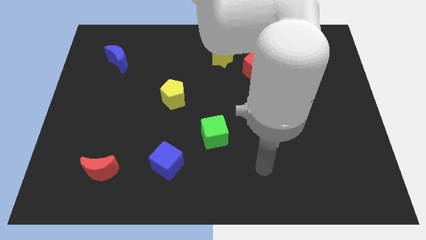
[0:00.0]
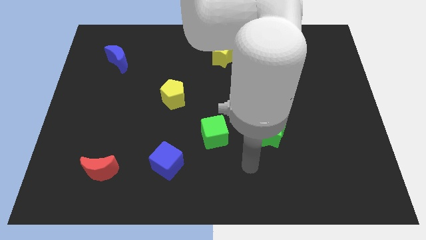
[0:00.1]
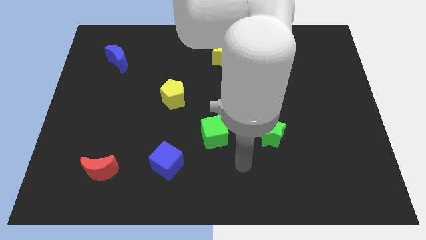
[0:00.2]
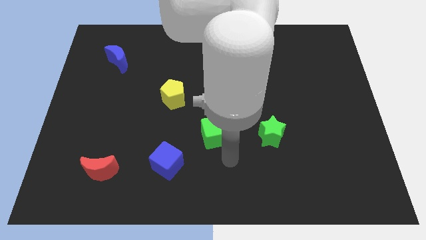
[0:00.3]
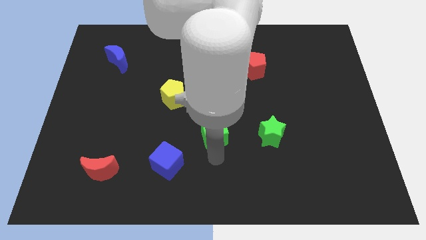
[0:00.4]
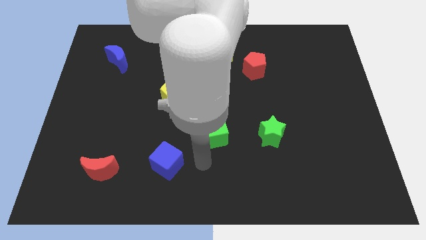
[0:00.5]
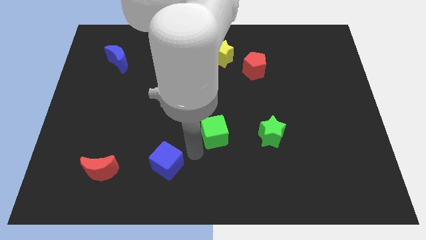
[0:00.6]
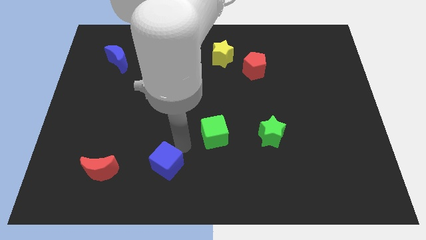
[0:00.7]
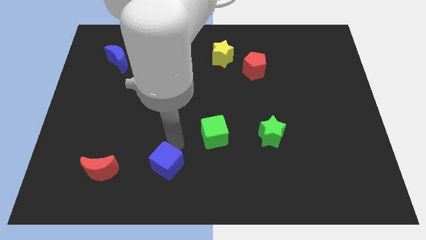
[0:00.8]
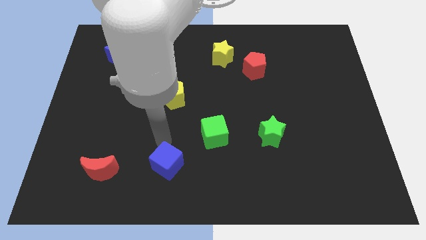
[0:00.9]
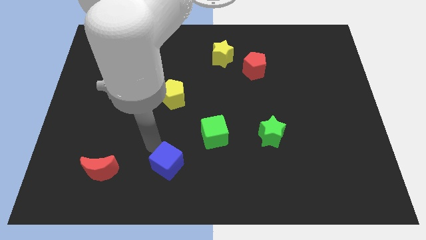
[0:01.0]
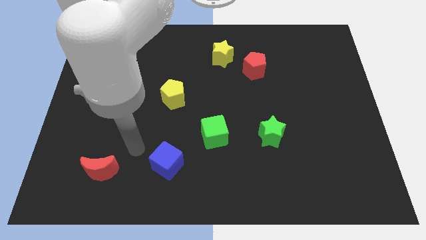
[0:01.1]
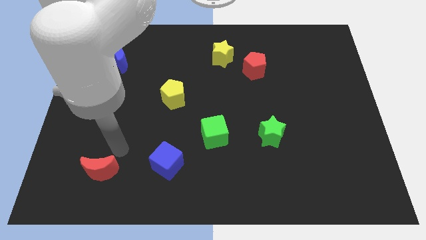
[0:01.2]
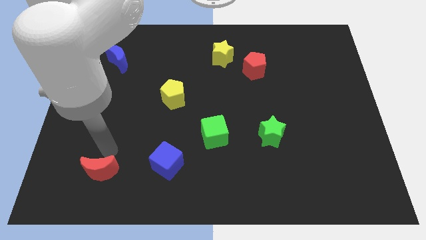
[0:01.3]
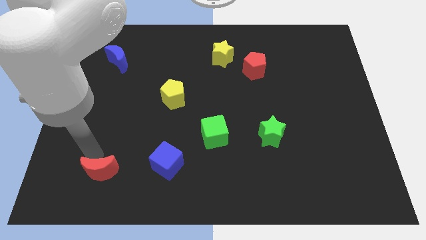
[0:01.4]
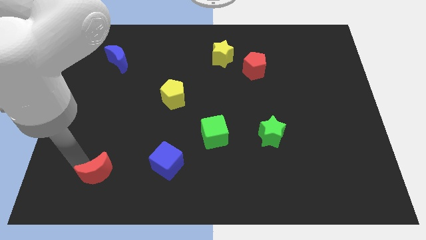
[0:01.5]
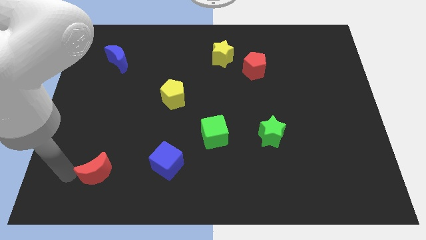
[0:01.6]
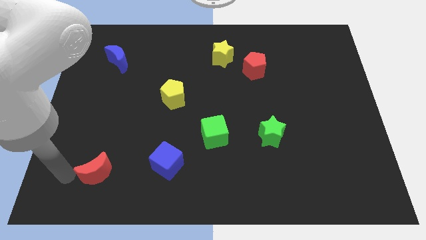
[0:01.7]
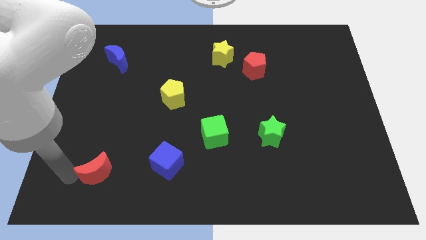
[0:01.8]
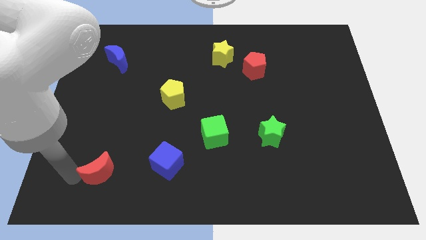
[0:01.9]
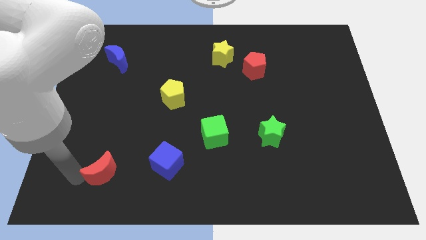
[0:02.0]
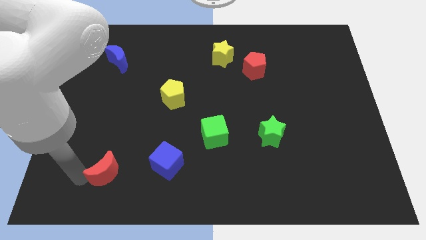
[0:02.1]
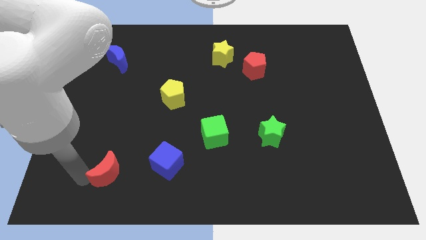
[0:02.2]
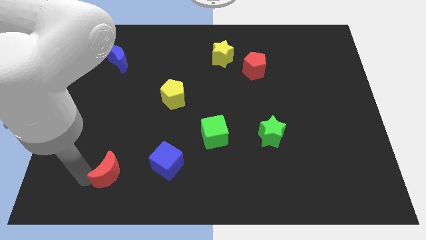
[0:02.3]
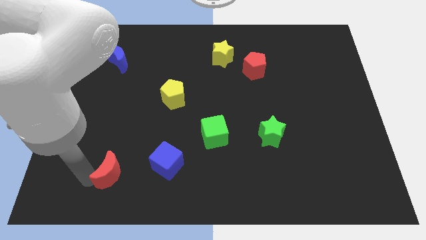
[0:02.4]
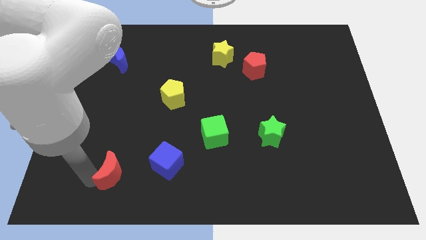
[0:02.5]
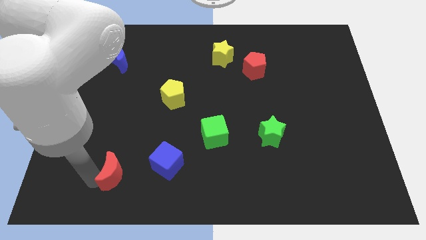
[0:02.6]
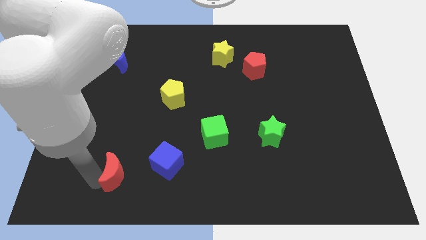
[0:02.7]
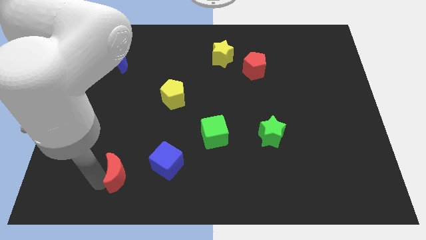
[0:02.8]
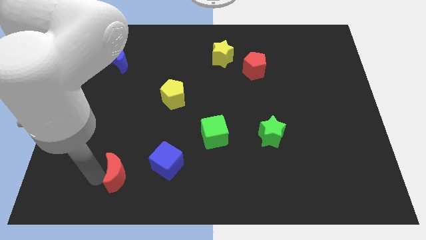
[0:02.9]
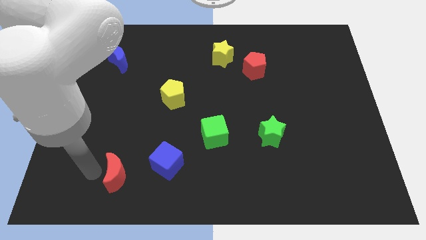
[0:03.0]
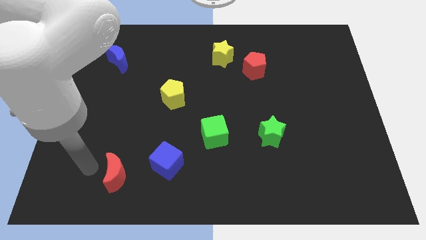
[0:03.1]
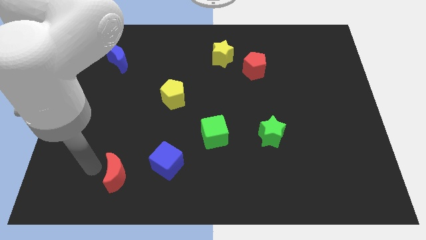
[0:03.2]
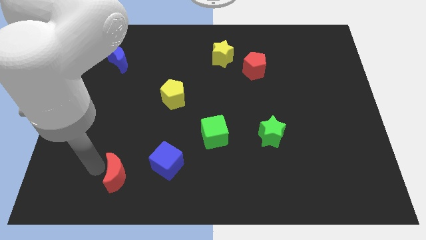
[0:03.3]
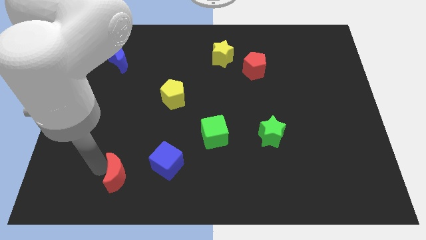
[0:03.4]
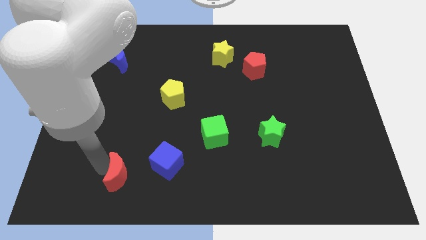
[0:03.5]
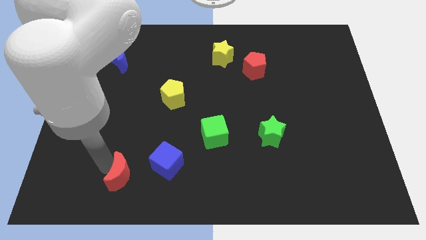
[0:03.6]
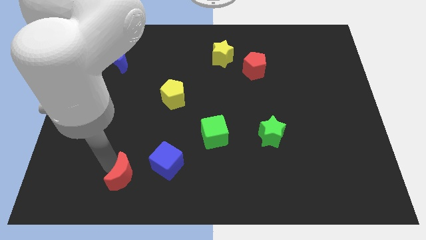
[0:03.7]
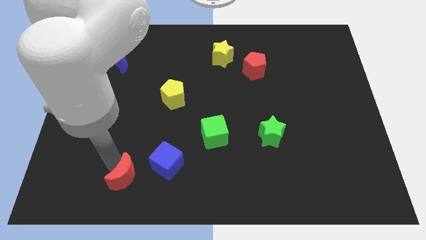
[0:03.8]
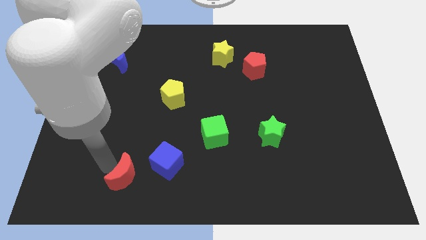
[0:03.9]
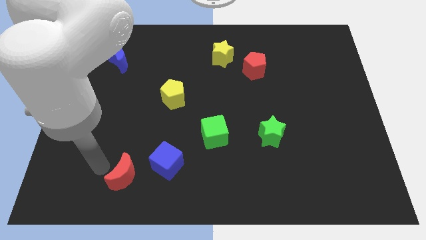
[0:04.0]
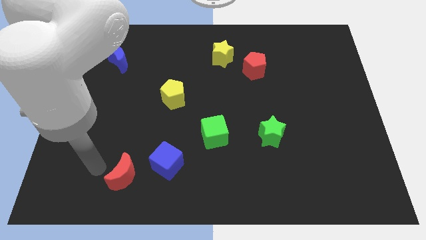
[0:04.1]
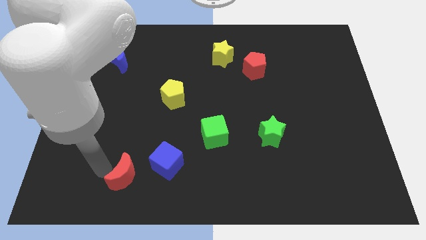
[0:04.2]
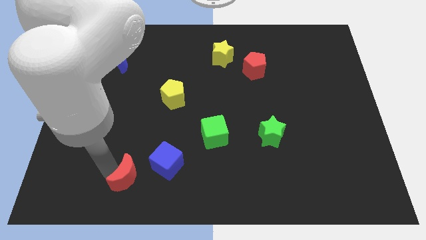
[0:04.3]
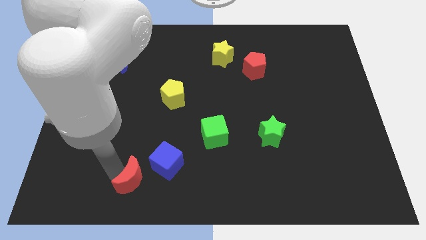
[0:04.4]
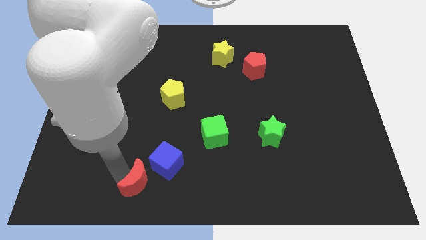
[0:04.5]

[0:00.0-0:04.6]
push the red moon to the right a little bit

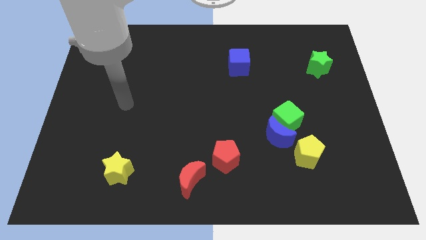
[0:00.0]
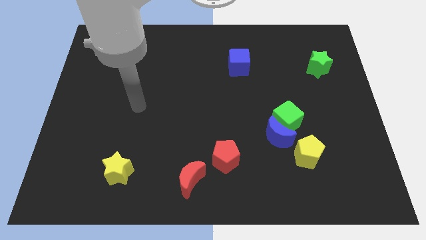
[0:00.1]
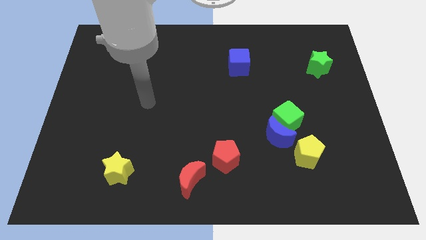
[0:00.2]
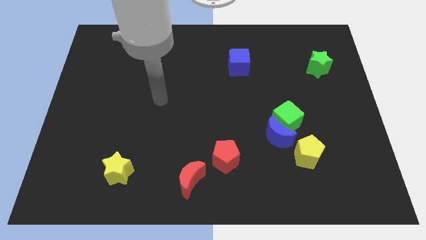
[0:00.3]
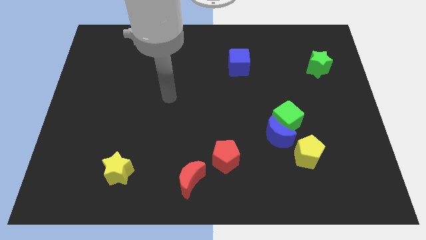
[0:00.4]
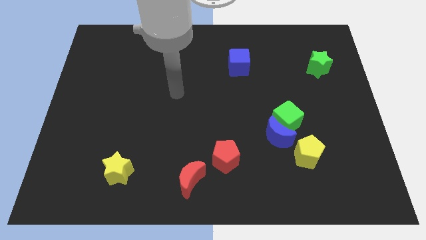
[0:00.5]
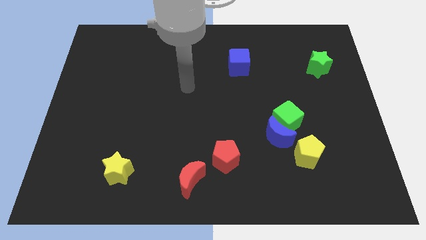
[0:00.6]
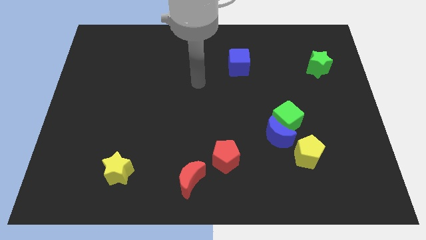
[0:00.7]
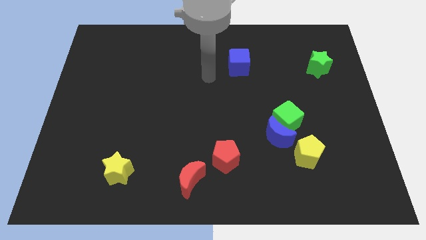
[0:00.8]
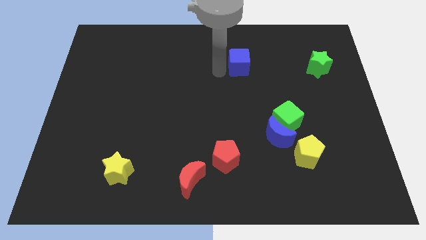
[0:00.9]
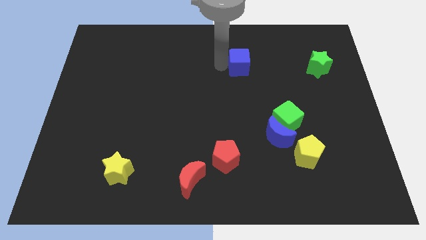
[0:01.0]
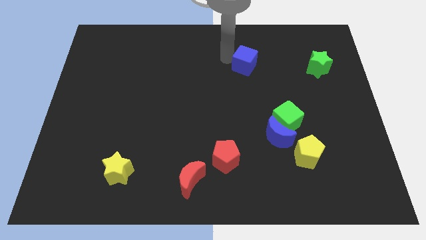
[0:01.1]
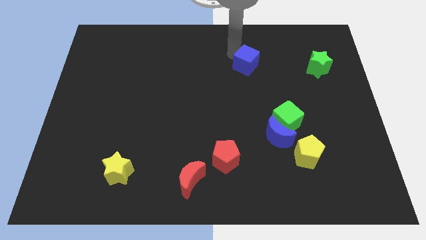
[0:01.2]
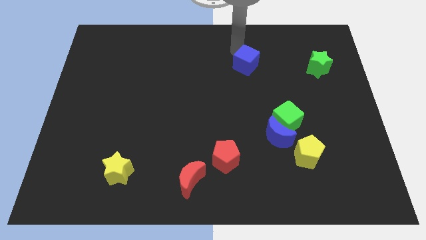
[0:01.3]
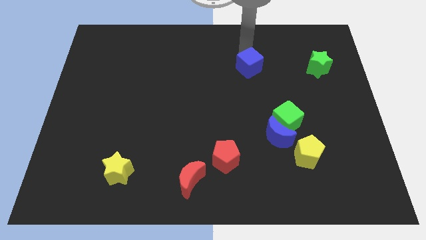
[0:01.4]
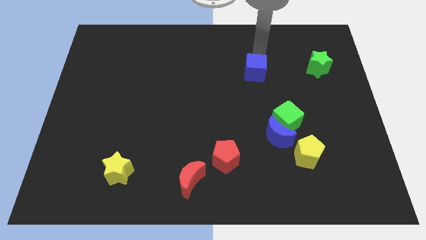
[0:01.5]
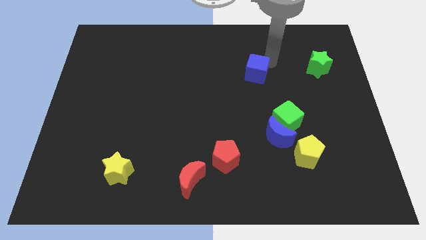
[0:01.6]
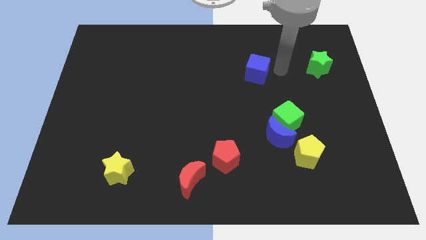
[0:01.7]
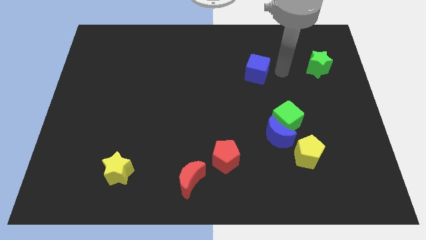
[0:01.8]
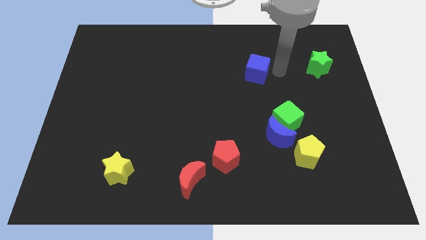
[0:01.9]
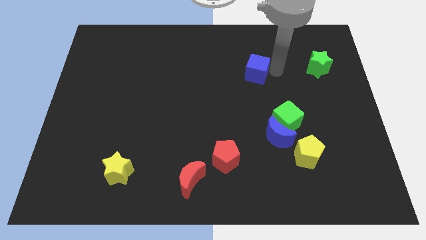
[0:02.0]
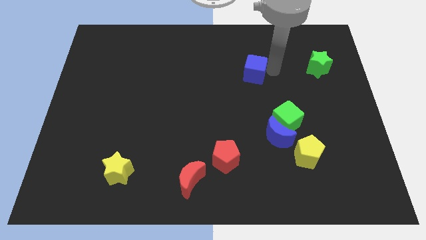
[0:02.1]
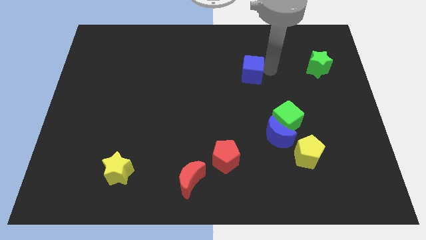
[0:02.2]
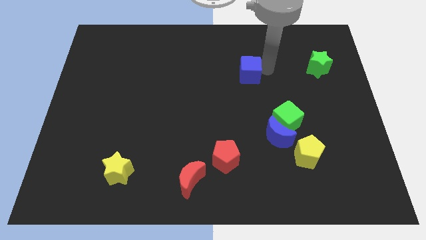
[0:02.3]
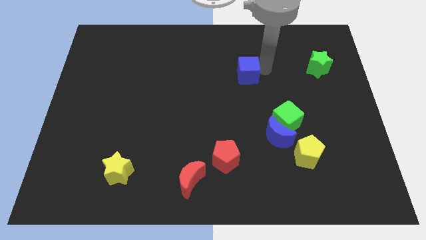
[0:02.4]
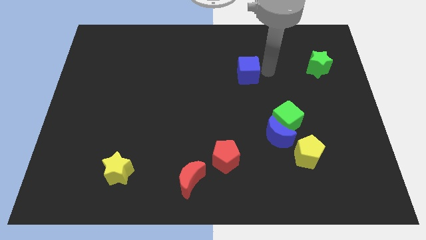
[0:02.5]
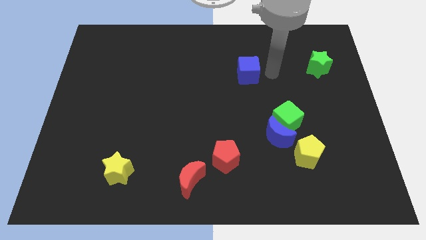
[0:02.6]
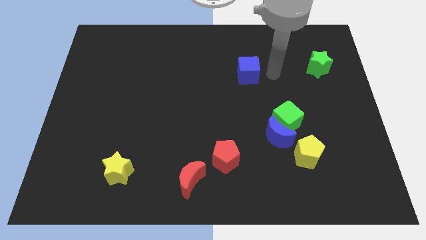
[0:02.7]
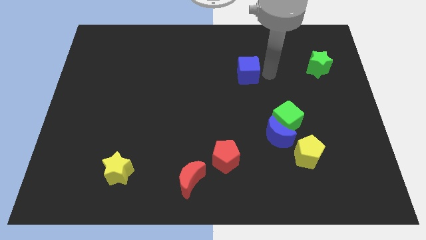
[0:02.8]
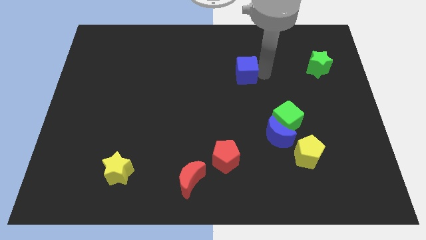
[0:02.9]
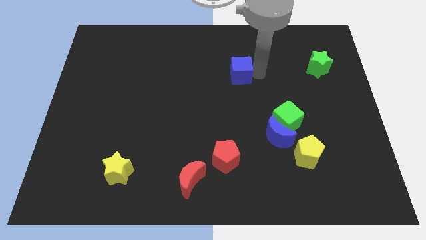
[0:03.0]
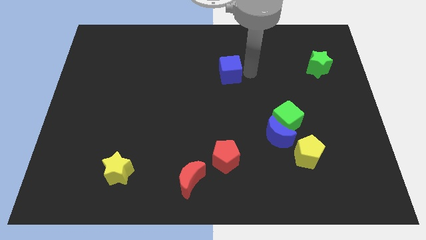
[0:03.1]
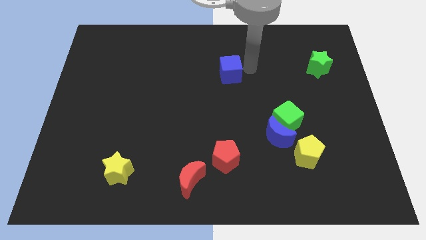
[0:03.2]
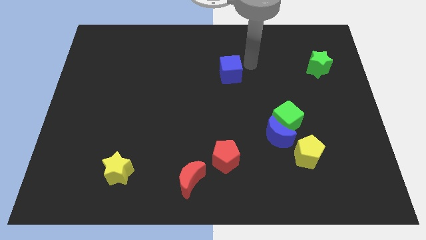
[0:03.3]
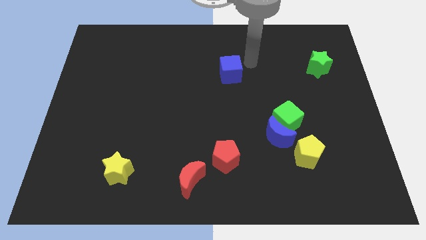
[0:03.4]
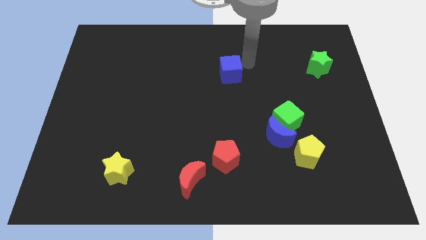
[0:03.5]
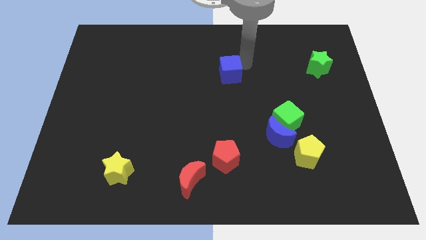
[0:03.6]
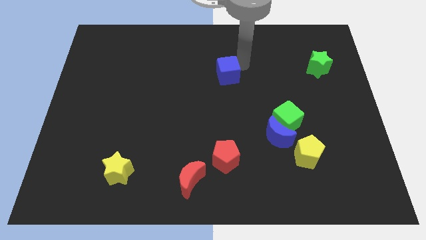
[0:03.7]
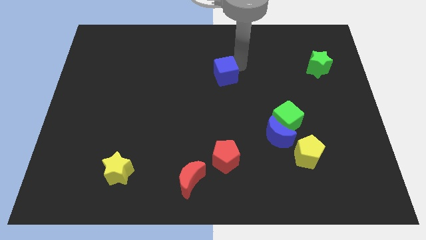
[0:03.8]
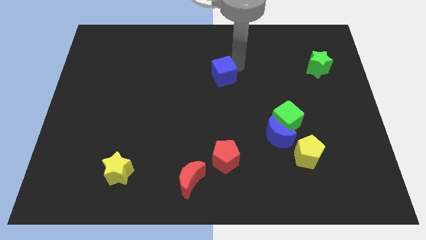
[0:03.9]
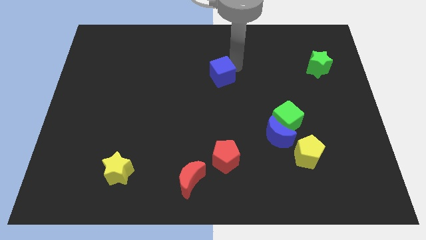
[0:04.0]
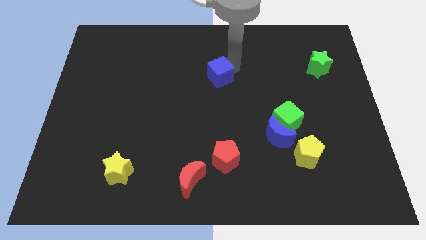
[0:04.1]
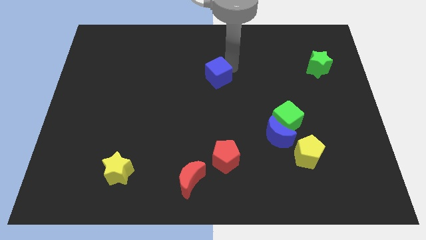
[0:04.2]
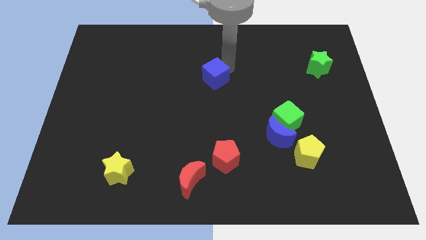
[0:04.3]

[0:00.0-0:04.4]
move the blue cube somewhat downwards and then to the left
